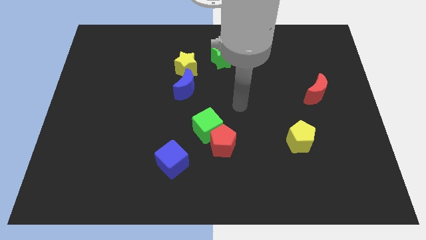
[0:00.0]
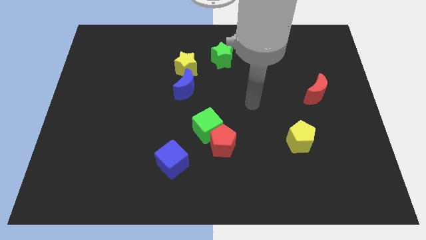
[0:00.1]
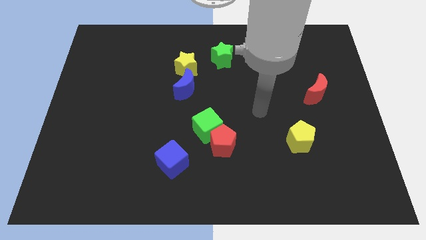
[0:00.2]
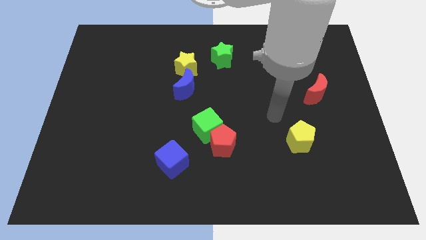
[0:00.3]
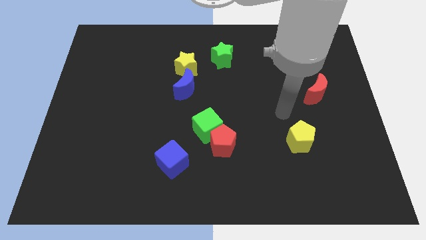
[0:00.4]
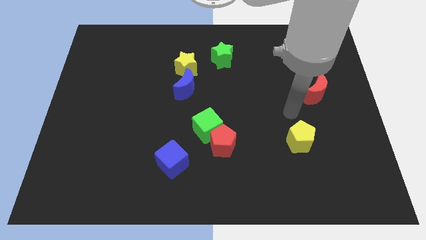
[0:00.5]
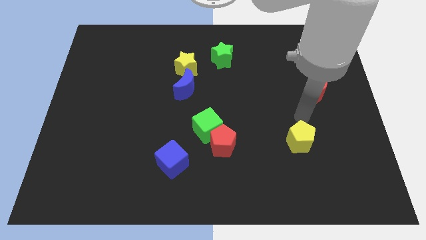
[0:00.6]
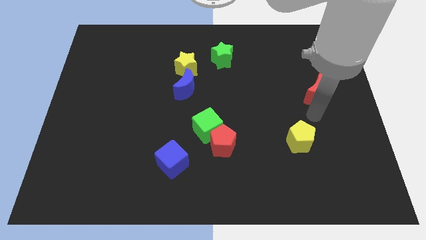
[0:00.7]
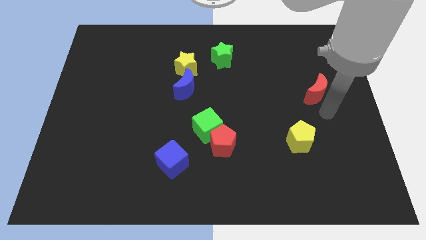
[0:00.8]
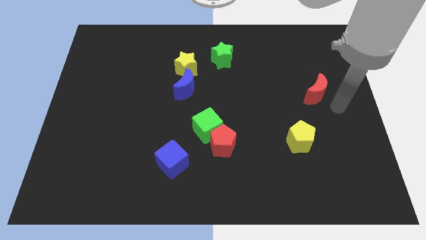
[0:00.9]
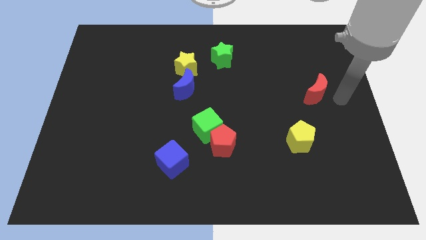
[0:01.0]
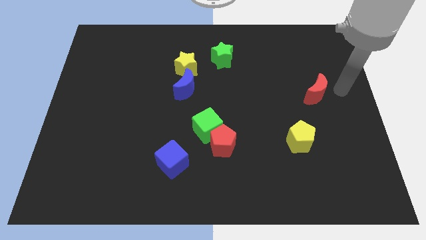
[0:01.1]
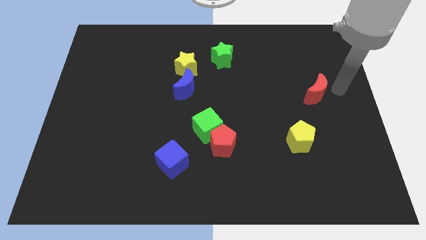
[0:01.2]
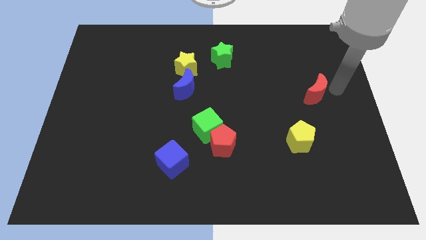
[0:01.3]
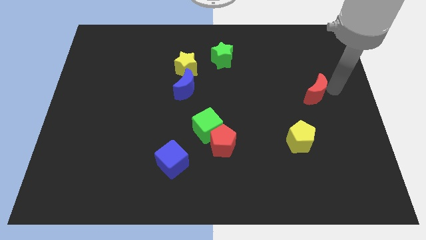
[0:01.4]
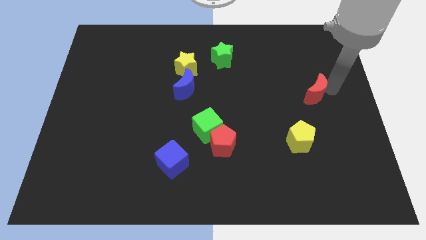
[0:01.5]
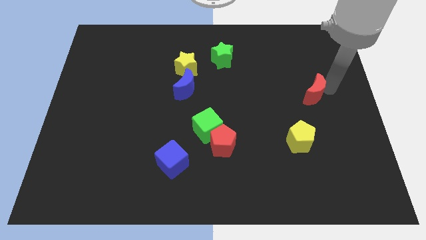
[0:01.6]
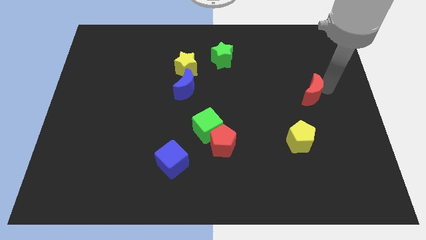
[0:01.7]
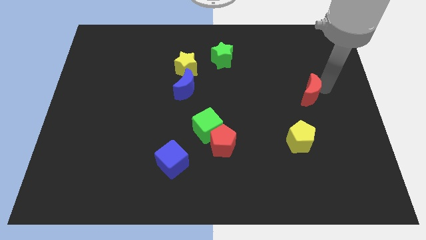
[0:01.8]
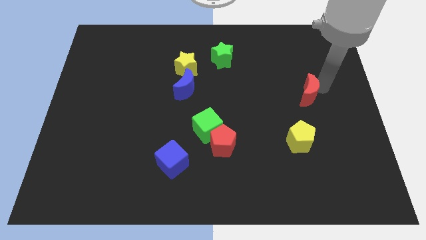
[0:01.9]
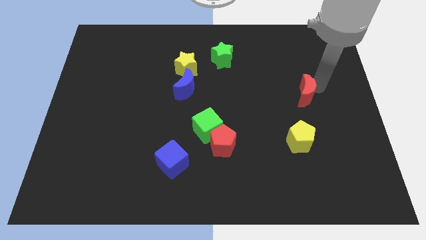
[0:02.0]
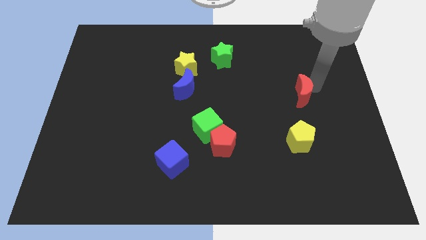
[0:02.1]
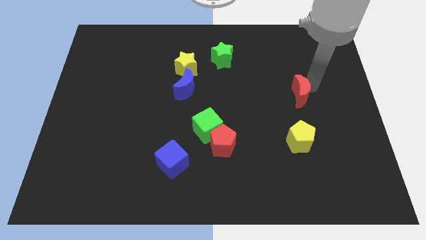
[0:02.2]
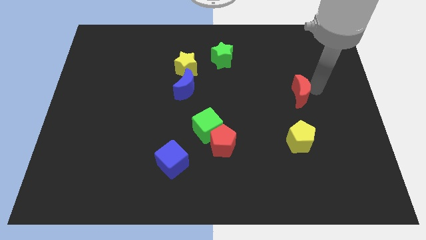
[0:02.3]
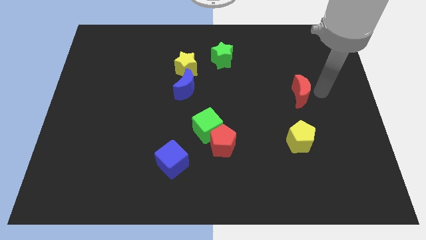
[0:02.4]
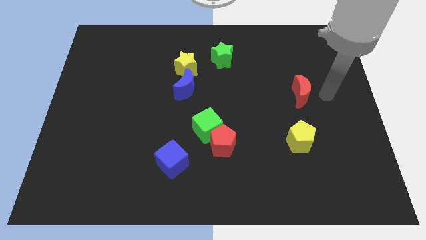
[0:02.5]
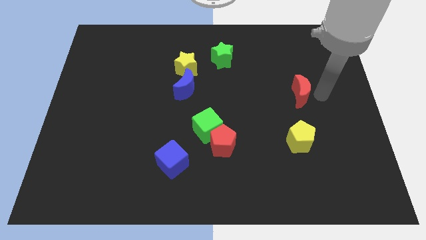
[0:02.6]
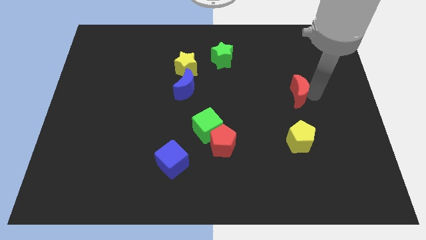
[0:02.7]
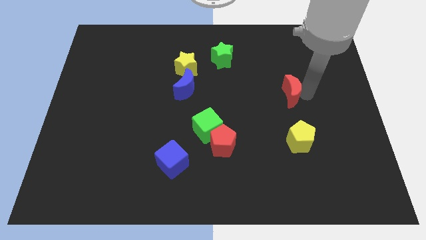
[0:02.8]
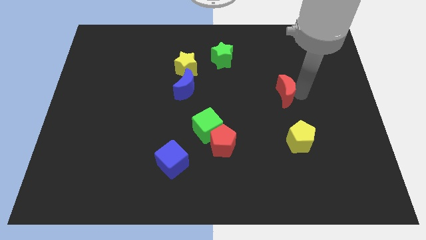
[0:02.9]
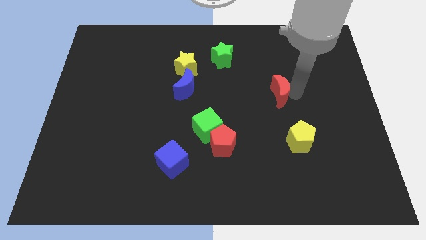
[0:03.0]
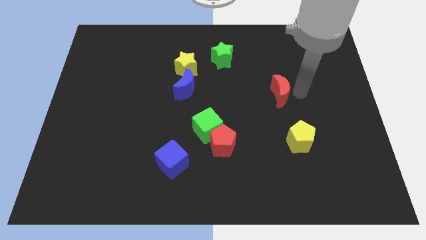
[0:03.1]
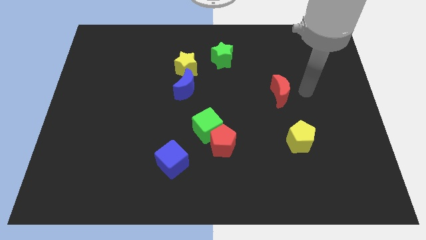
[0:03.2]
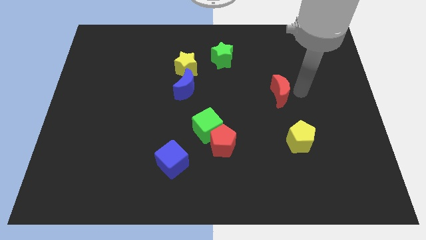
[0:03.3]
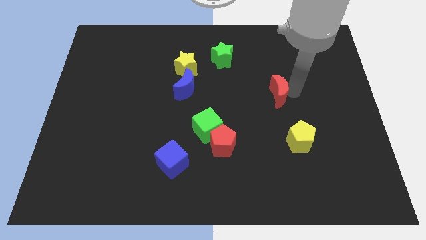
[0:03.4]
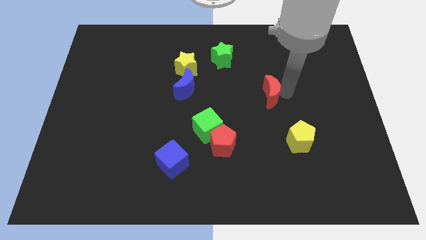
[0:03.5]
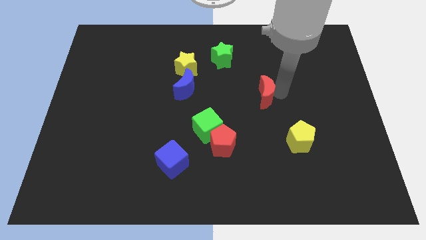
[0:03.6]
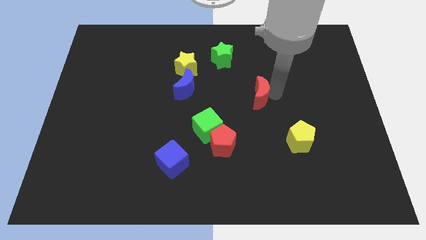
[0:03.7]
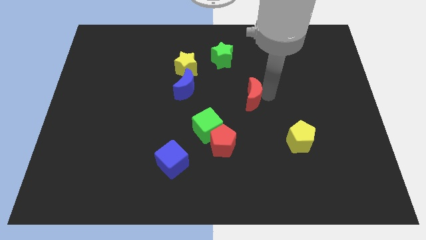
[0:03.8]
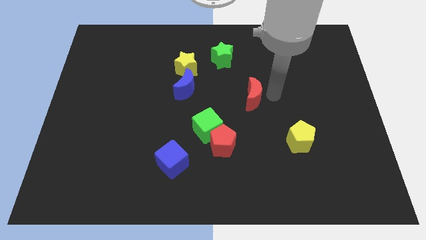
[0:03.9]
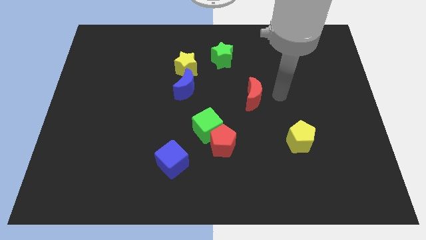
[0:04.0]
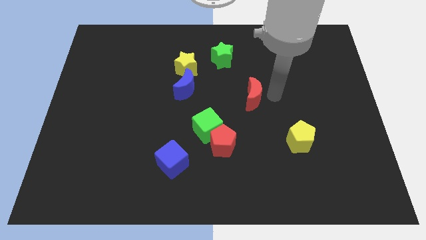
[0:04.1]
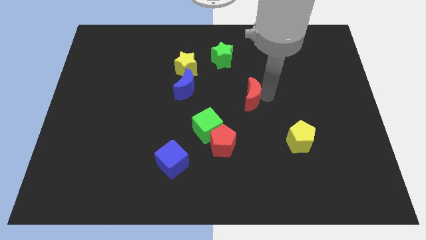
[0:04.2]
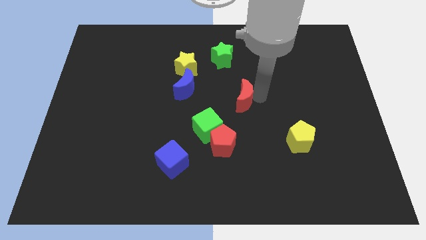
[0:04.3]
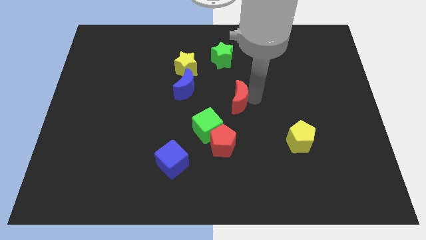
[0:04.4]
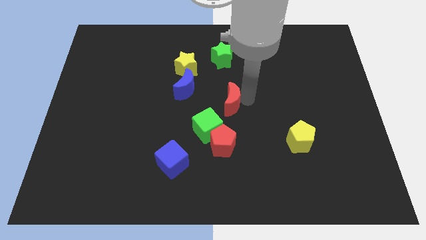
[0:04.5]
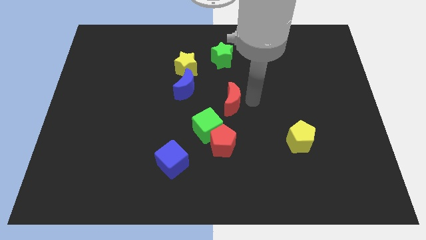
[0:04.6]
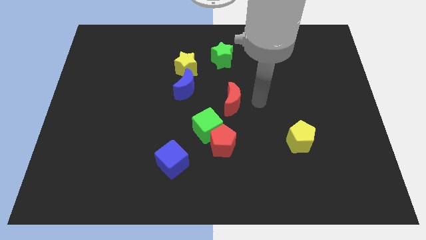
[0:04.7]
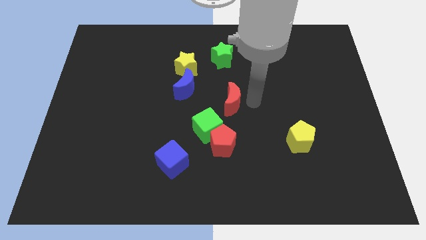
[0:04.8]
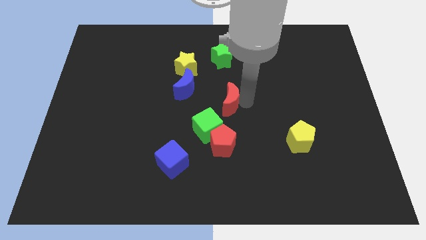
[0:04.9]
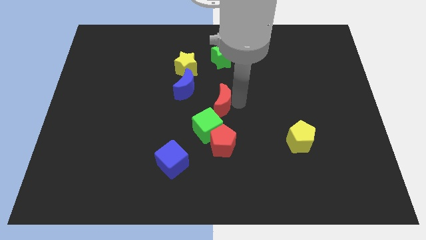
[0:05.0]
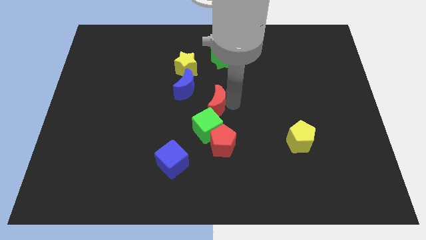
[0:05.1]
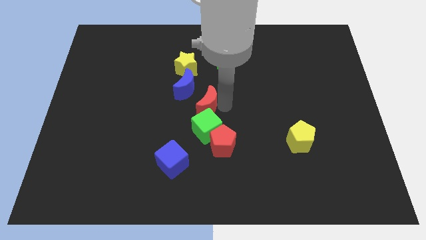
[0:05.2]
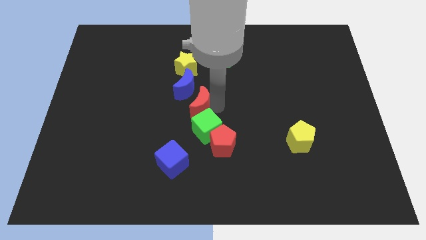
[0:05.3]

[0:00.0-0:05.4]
slide the red moon to the bottom side of the yellow star

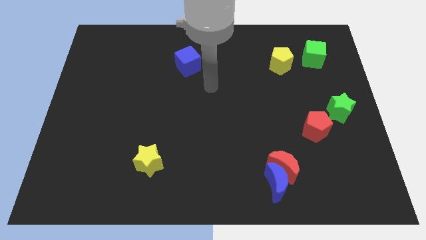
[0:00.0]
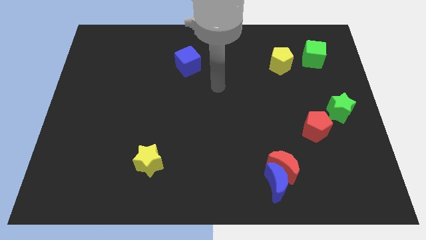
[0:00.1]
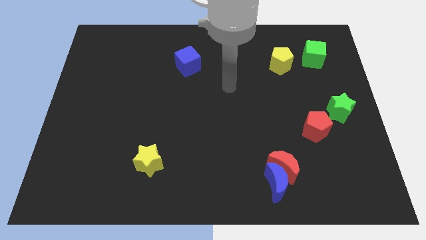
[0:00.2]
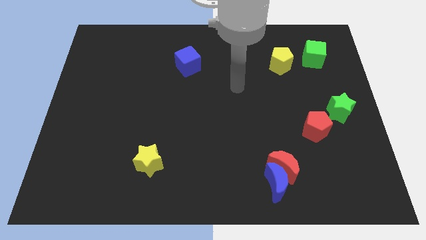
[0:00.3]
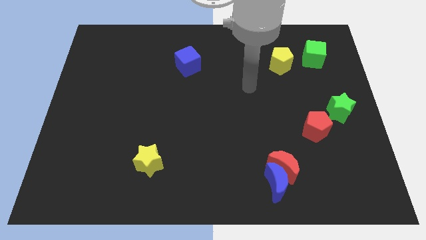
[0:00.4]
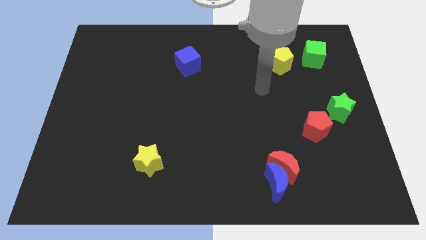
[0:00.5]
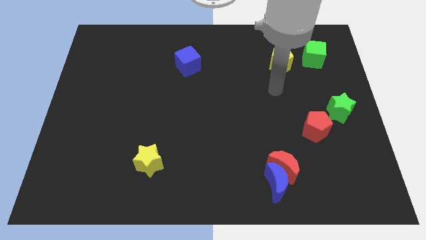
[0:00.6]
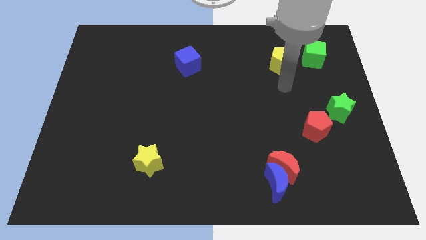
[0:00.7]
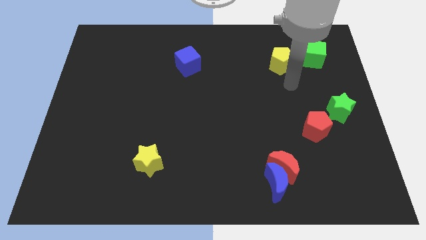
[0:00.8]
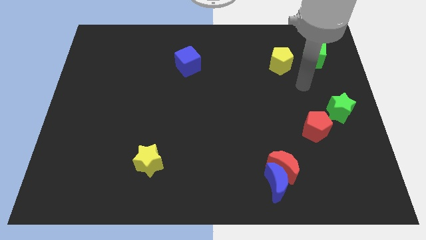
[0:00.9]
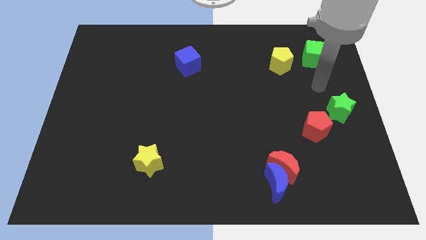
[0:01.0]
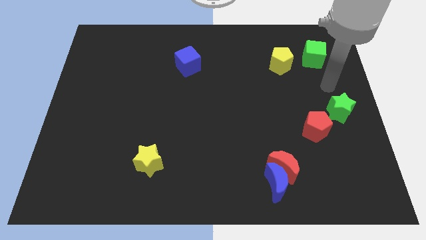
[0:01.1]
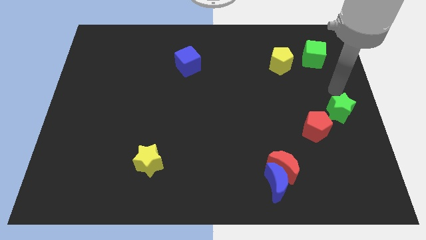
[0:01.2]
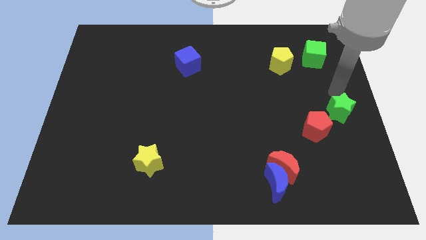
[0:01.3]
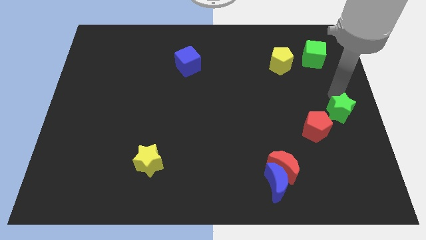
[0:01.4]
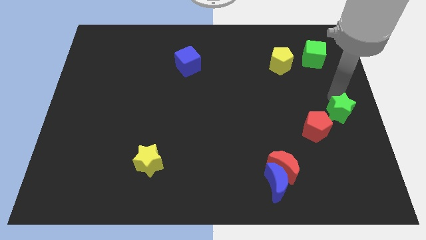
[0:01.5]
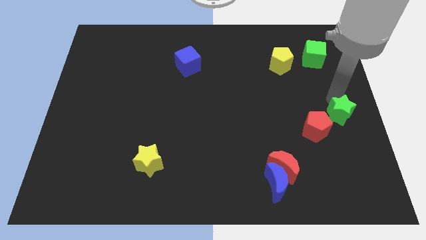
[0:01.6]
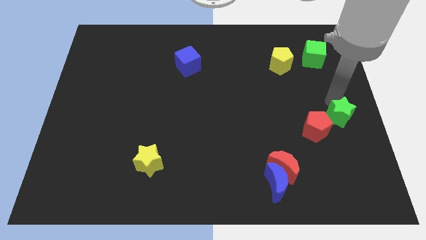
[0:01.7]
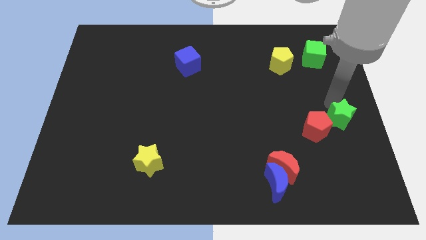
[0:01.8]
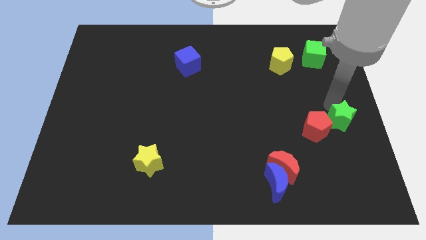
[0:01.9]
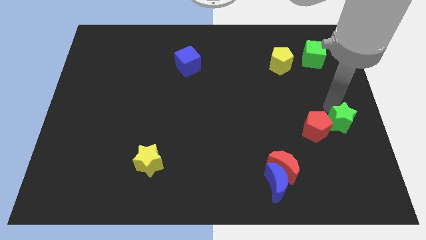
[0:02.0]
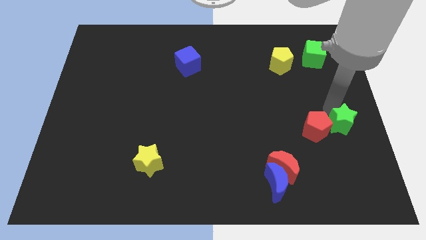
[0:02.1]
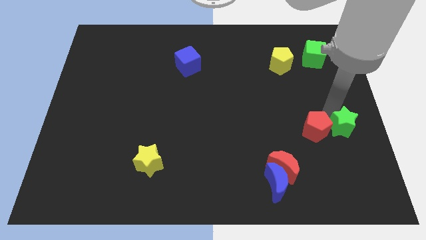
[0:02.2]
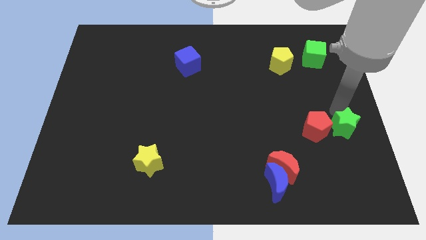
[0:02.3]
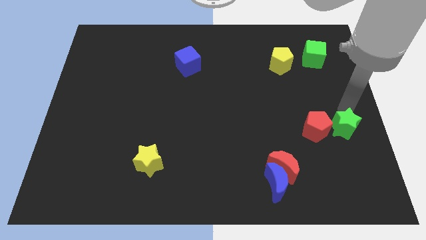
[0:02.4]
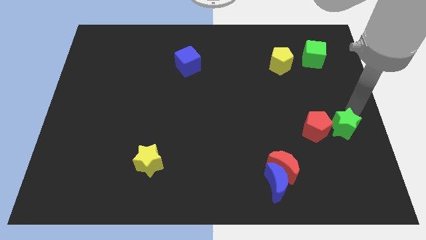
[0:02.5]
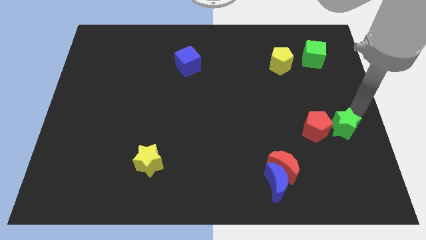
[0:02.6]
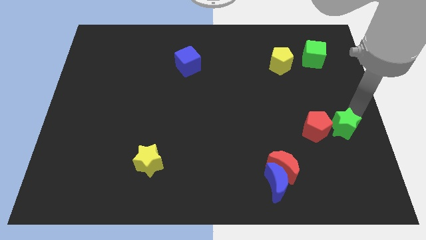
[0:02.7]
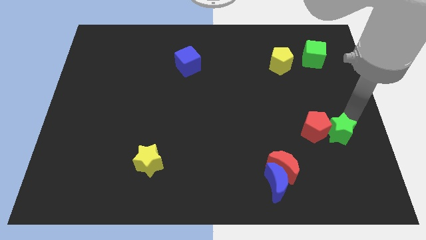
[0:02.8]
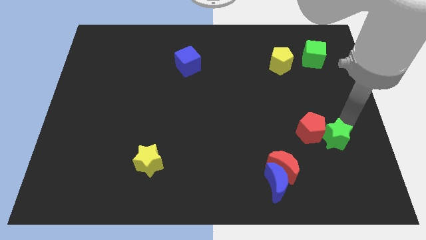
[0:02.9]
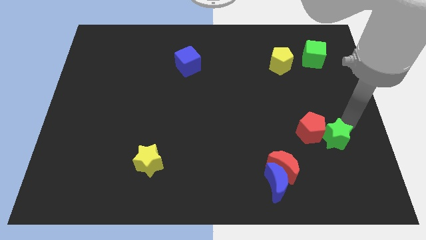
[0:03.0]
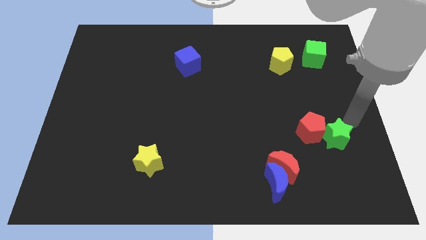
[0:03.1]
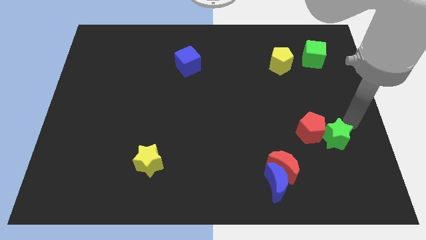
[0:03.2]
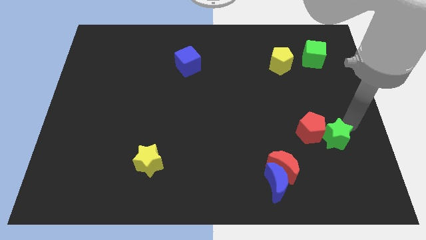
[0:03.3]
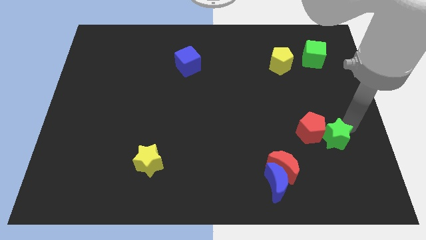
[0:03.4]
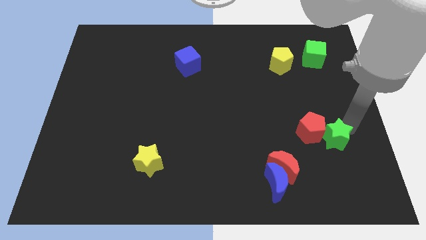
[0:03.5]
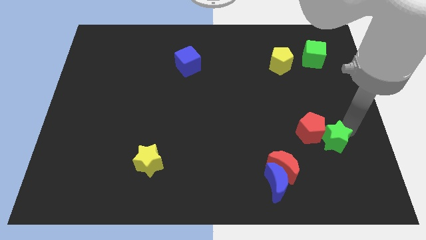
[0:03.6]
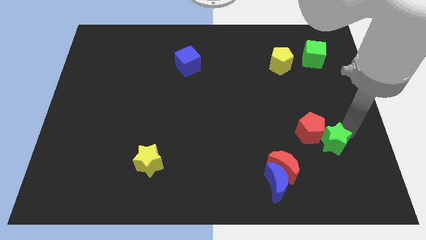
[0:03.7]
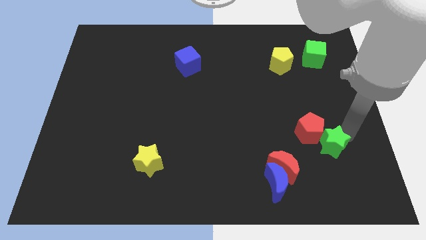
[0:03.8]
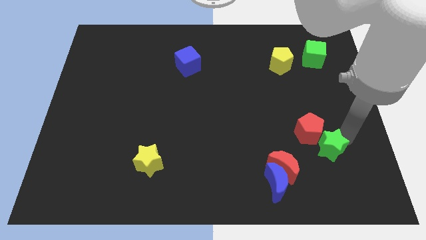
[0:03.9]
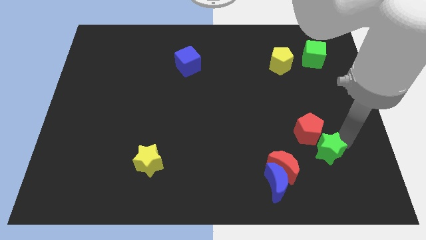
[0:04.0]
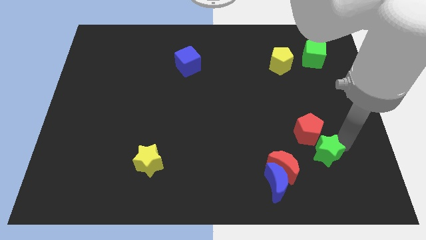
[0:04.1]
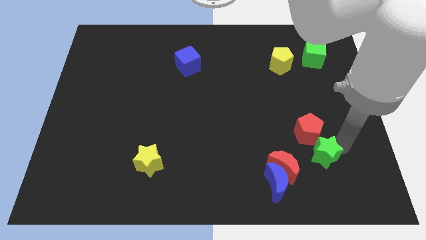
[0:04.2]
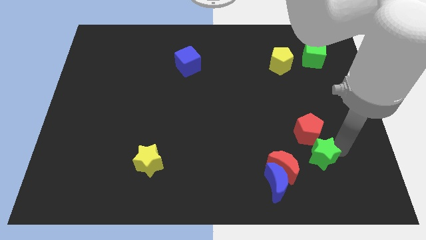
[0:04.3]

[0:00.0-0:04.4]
put the green star to the top right side of the blue moon
